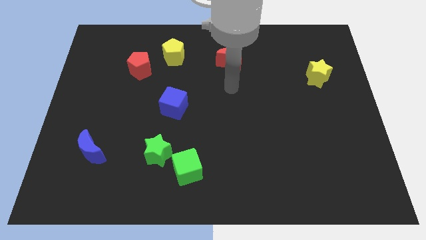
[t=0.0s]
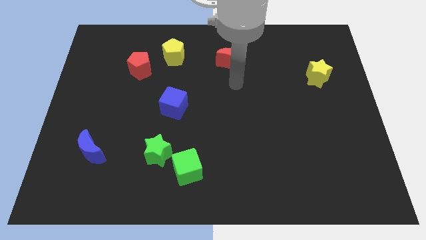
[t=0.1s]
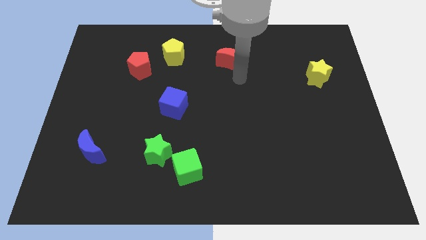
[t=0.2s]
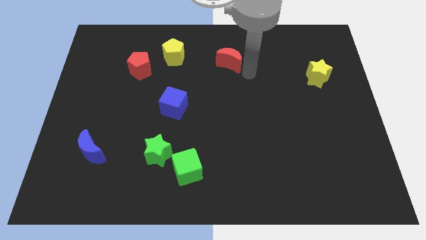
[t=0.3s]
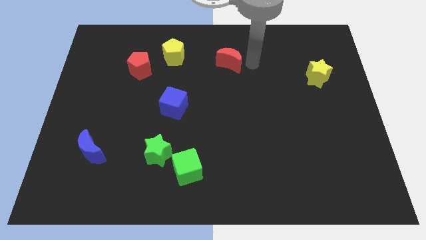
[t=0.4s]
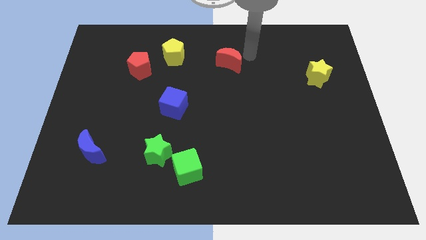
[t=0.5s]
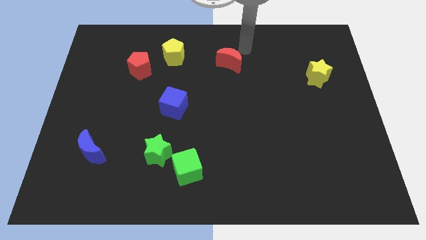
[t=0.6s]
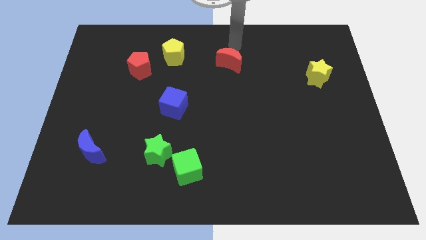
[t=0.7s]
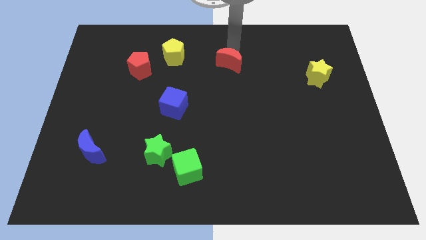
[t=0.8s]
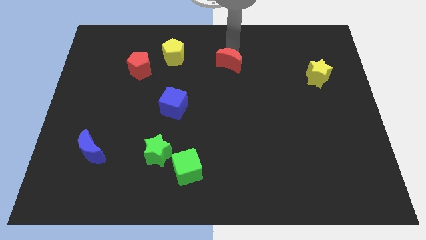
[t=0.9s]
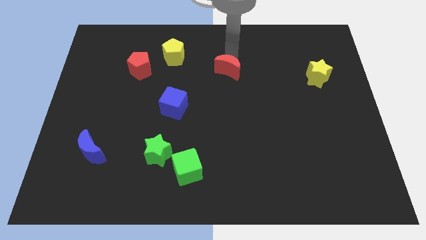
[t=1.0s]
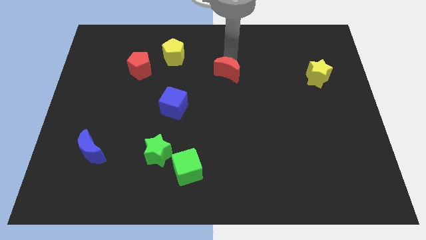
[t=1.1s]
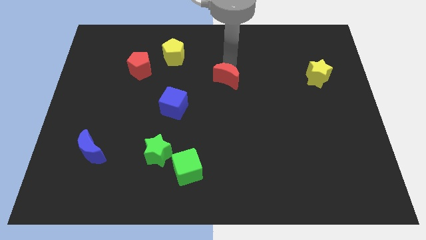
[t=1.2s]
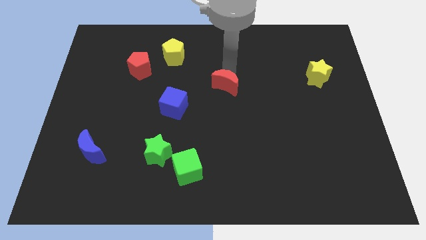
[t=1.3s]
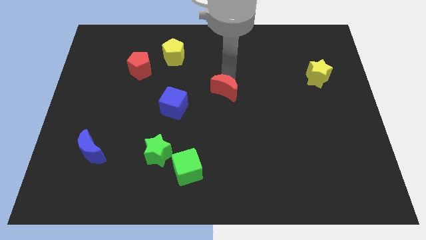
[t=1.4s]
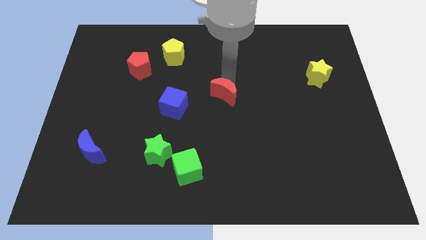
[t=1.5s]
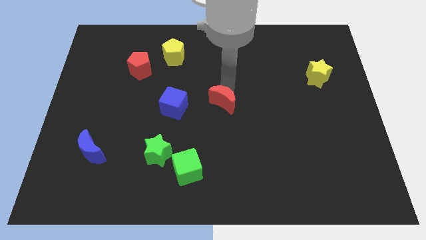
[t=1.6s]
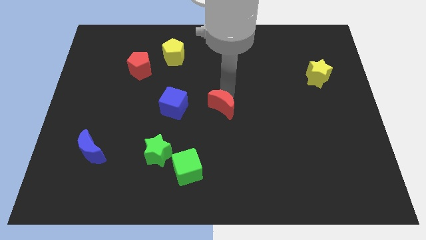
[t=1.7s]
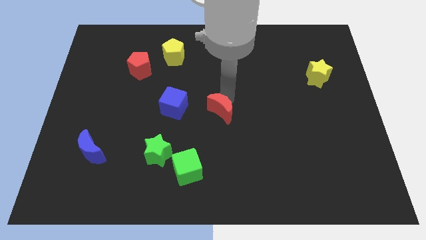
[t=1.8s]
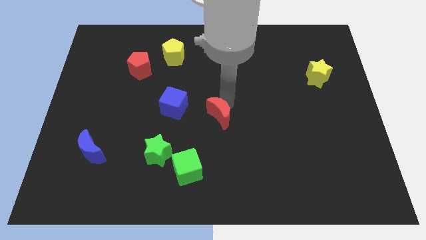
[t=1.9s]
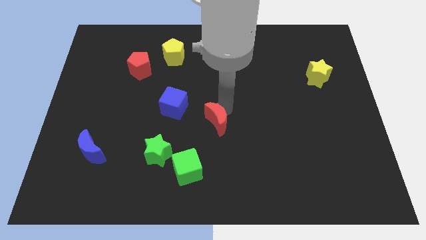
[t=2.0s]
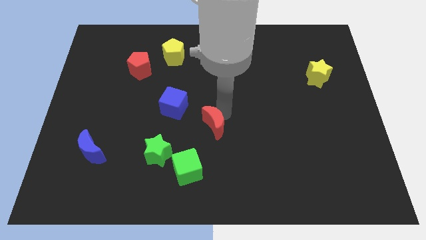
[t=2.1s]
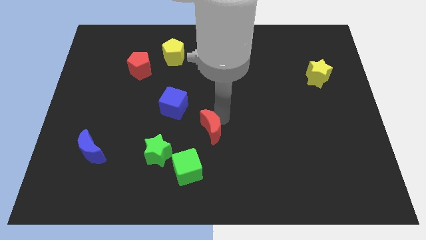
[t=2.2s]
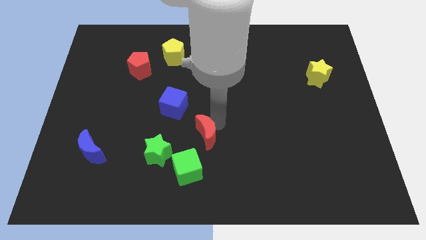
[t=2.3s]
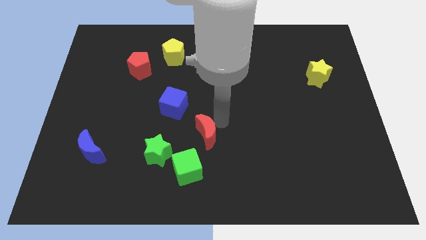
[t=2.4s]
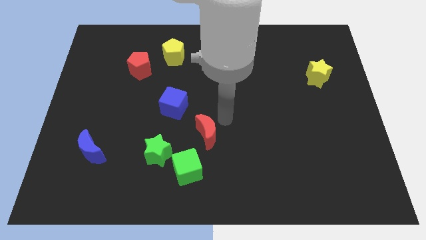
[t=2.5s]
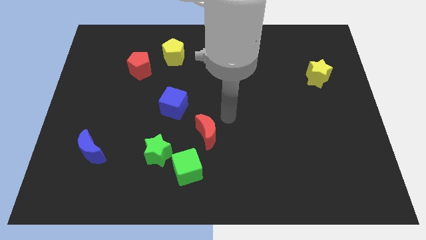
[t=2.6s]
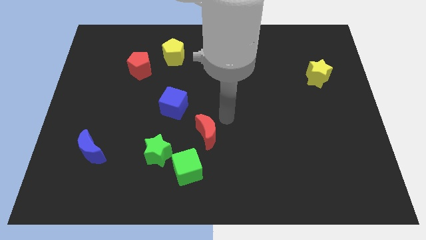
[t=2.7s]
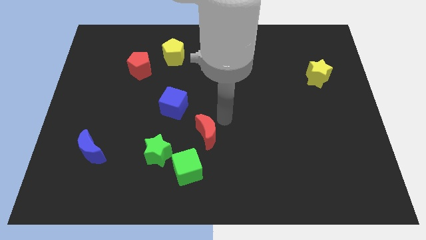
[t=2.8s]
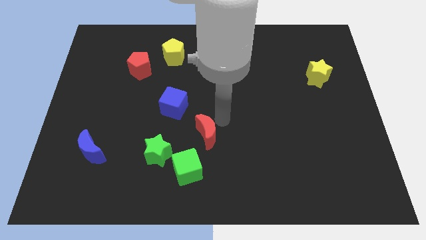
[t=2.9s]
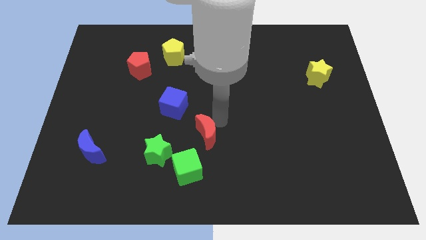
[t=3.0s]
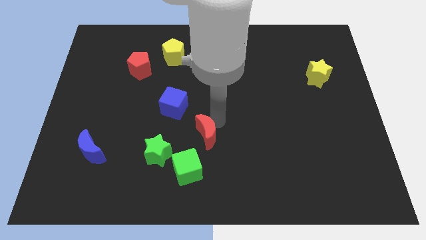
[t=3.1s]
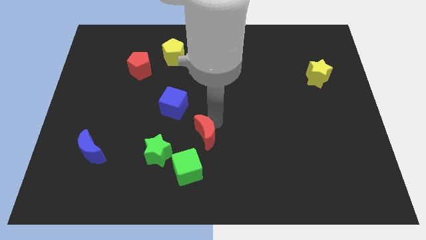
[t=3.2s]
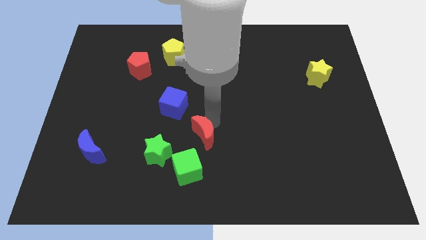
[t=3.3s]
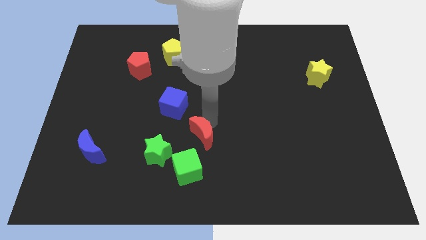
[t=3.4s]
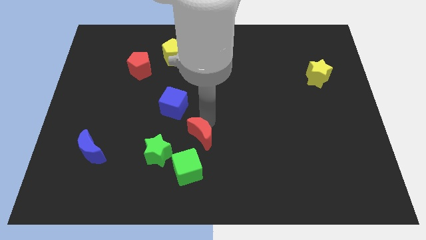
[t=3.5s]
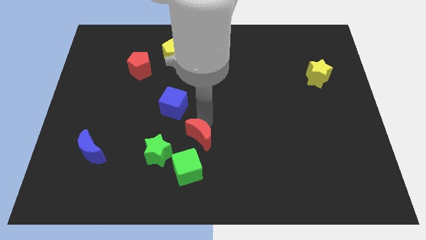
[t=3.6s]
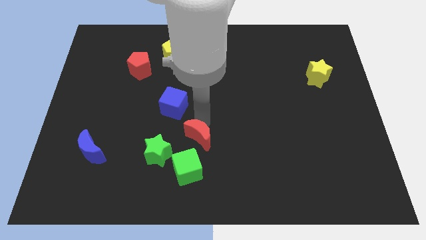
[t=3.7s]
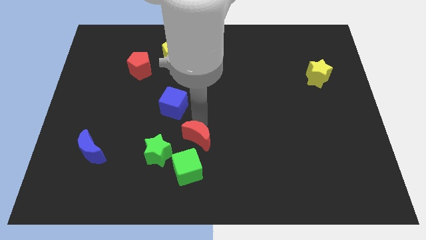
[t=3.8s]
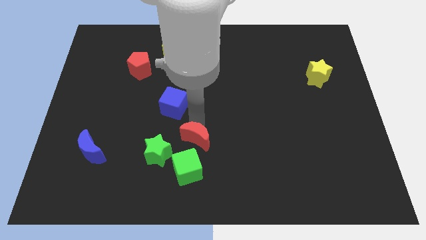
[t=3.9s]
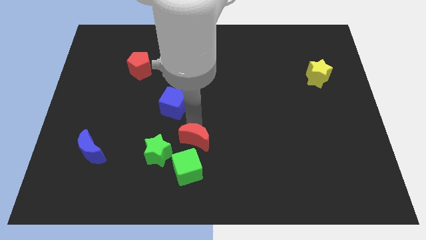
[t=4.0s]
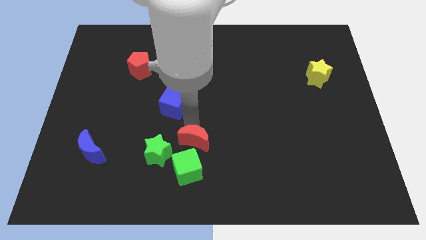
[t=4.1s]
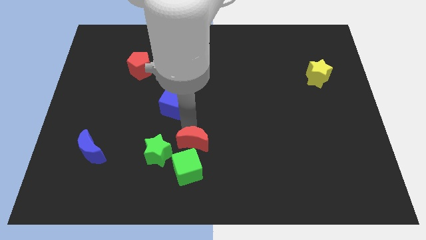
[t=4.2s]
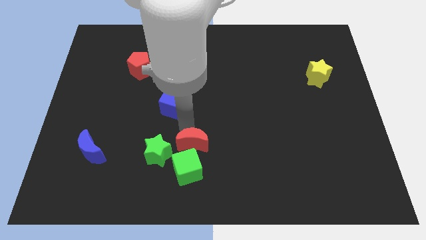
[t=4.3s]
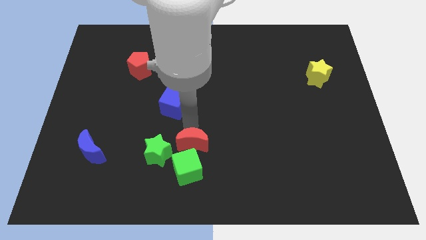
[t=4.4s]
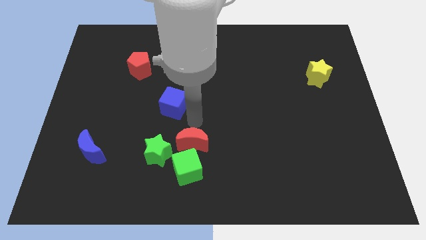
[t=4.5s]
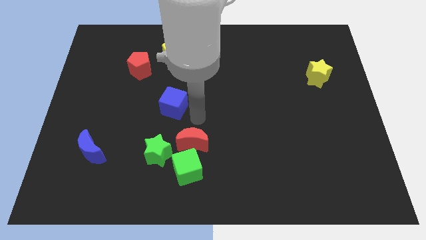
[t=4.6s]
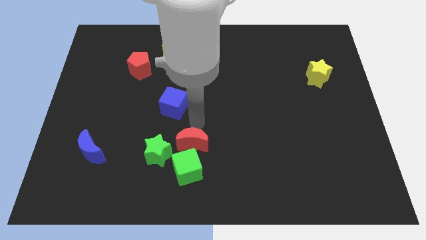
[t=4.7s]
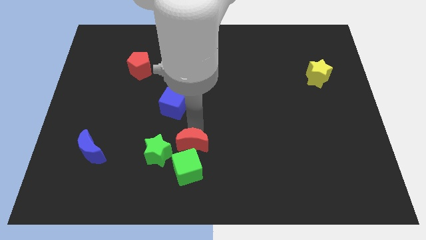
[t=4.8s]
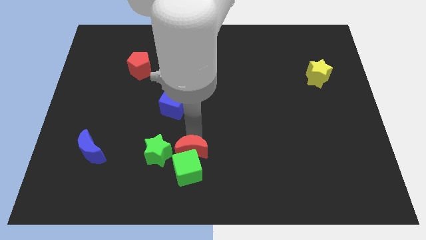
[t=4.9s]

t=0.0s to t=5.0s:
put the red moon to the green cube

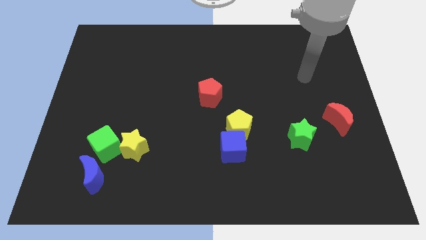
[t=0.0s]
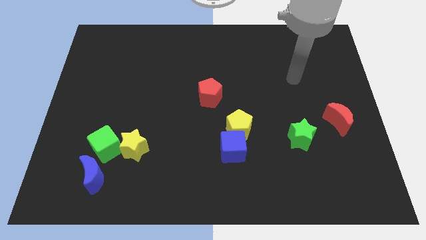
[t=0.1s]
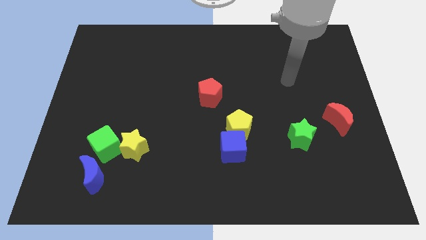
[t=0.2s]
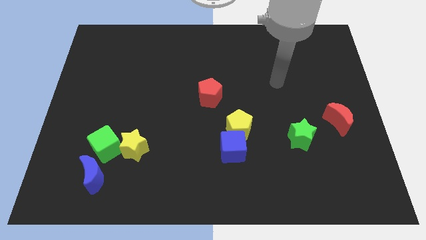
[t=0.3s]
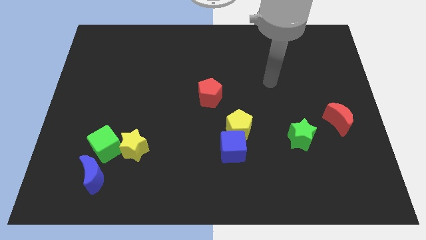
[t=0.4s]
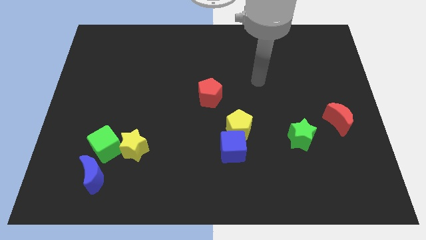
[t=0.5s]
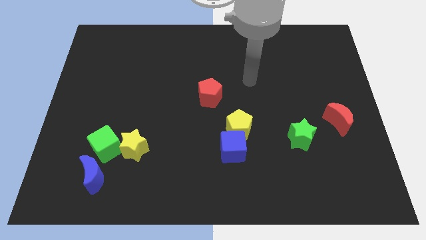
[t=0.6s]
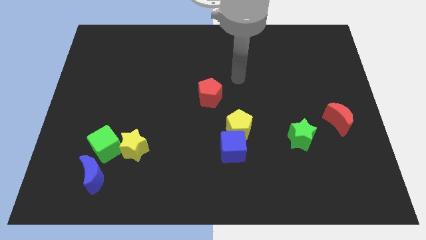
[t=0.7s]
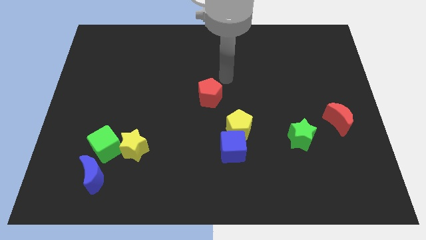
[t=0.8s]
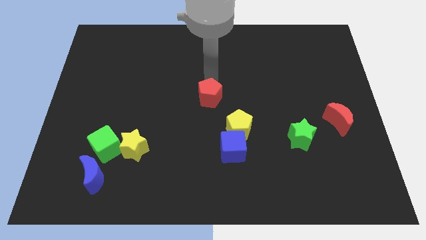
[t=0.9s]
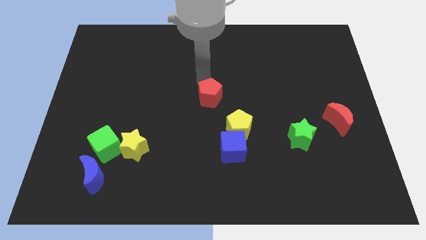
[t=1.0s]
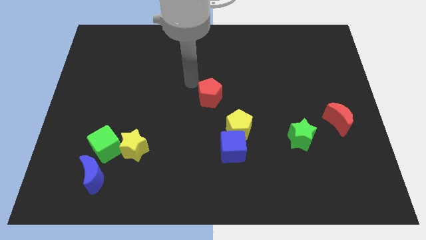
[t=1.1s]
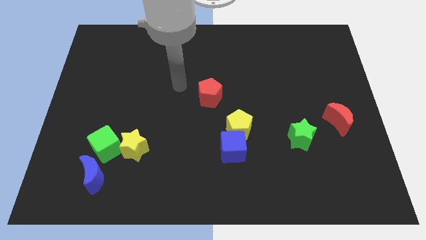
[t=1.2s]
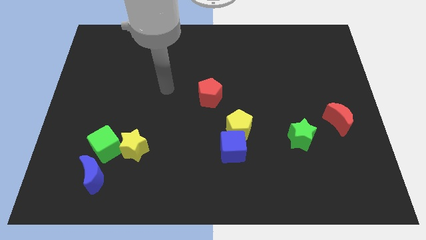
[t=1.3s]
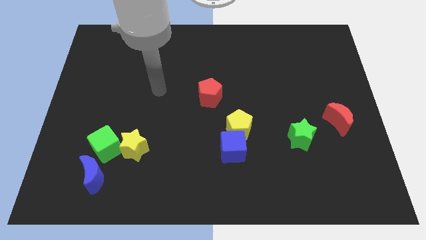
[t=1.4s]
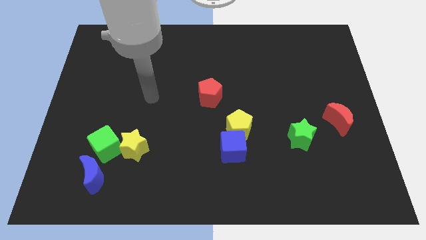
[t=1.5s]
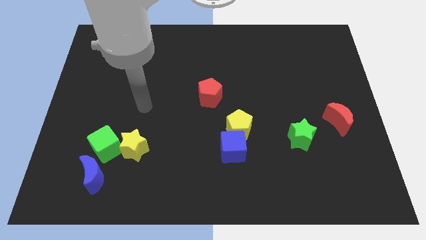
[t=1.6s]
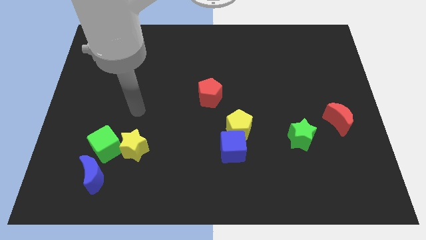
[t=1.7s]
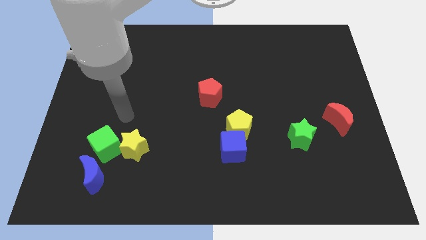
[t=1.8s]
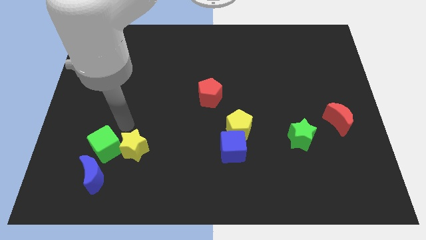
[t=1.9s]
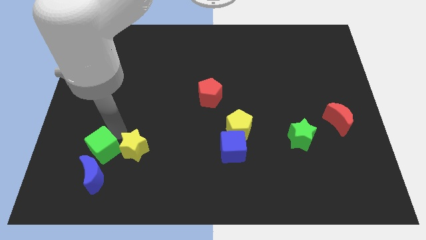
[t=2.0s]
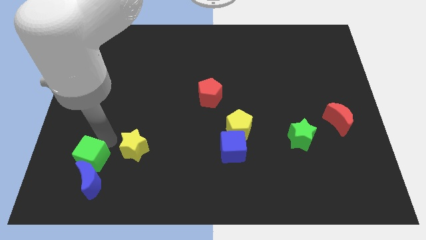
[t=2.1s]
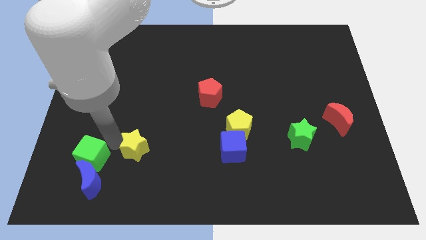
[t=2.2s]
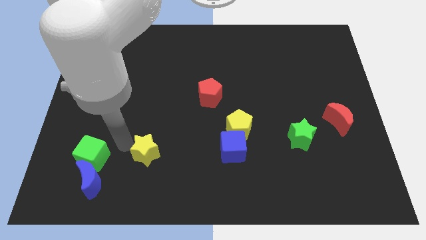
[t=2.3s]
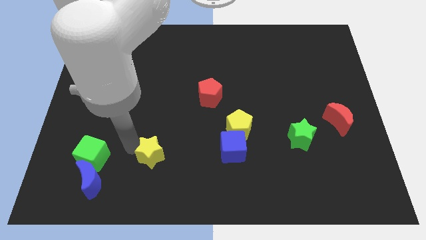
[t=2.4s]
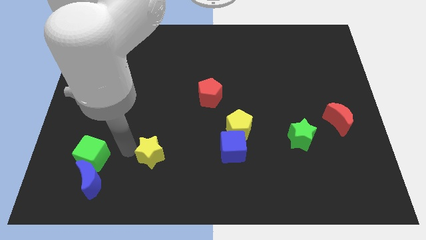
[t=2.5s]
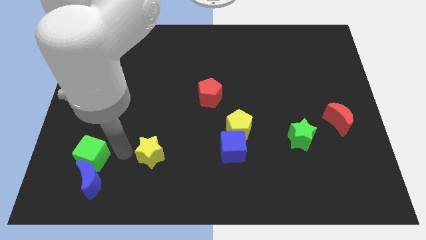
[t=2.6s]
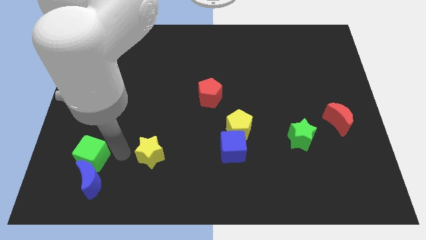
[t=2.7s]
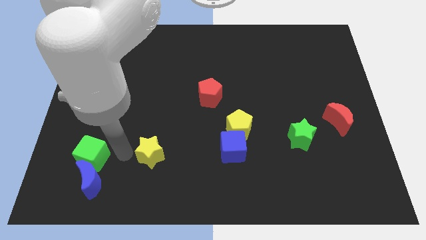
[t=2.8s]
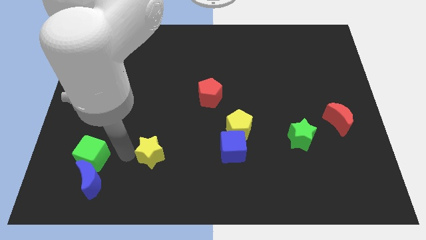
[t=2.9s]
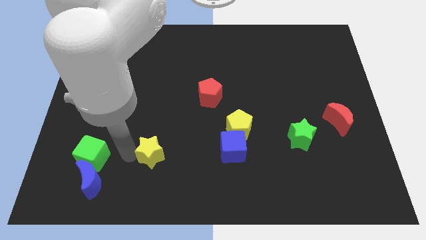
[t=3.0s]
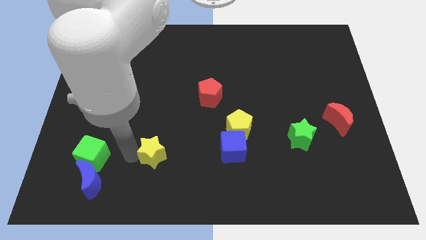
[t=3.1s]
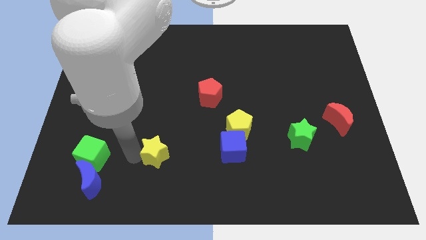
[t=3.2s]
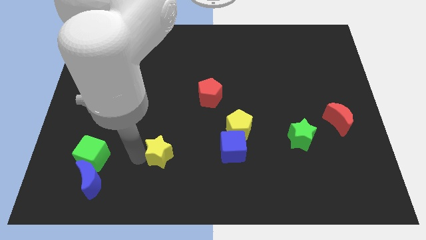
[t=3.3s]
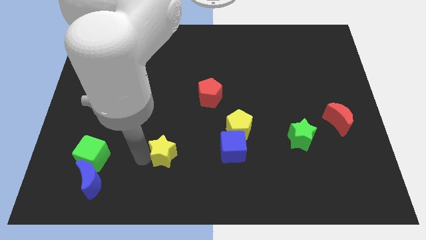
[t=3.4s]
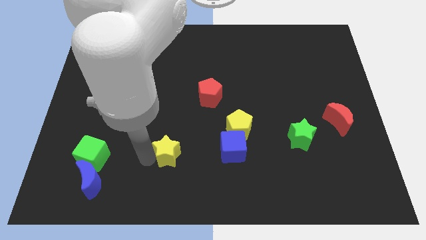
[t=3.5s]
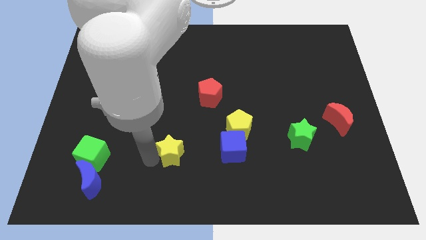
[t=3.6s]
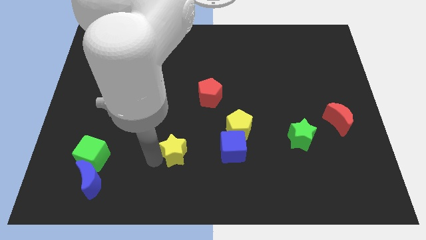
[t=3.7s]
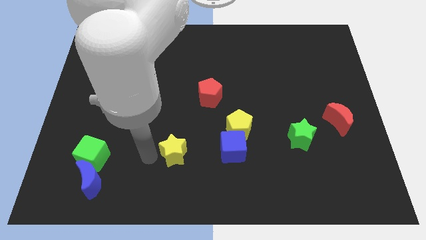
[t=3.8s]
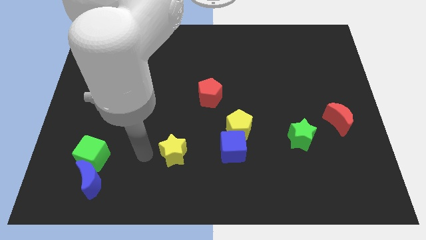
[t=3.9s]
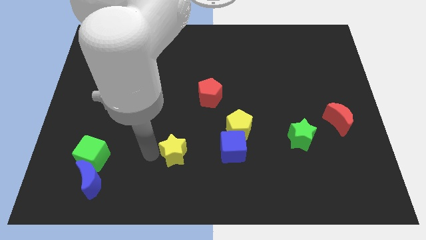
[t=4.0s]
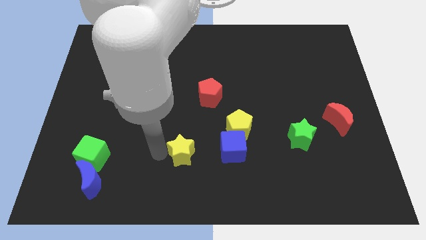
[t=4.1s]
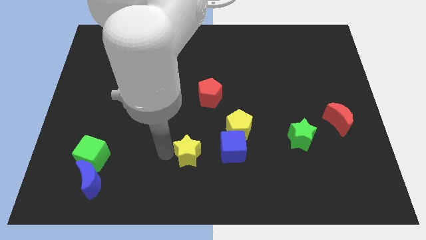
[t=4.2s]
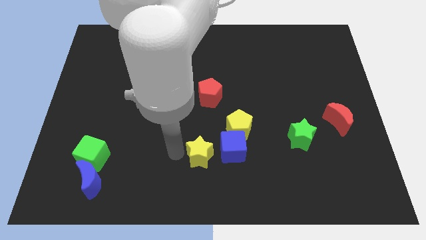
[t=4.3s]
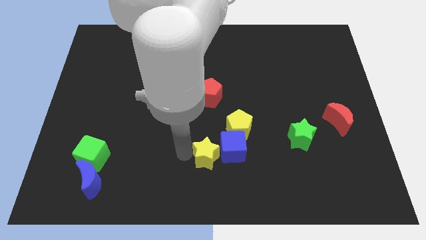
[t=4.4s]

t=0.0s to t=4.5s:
put the yellow star towards the blue cube
